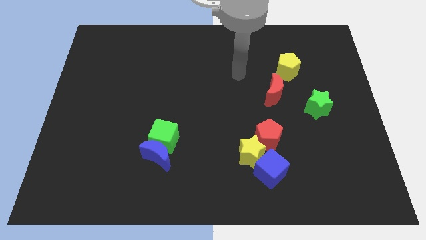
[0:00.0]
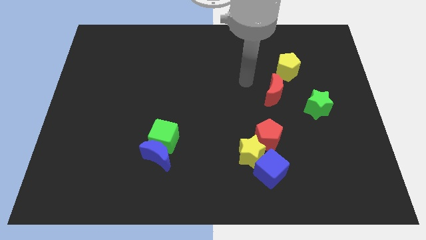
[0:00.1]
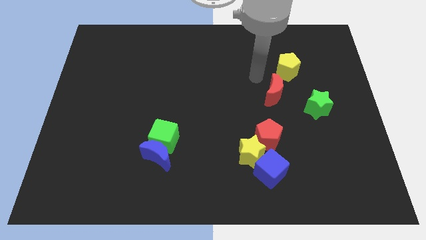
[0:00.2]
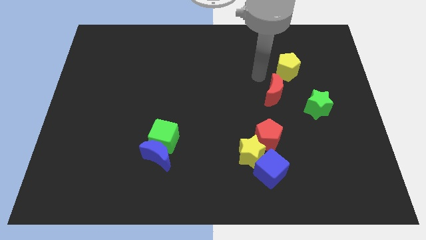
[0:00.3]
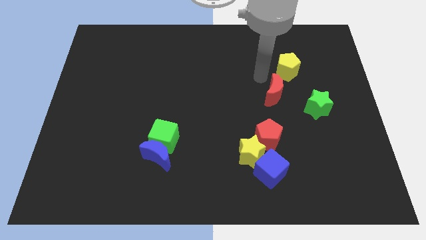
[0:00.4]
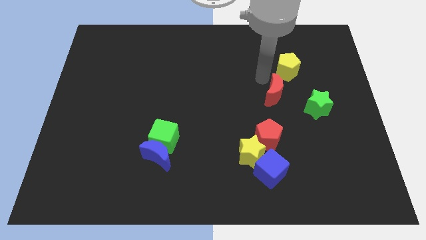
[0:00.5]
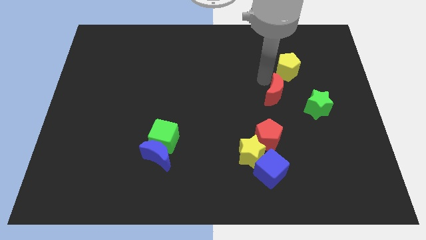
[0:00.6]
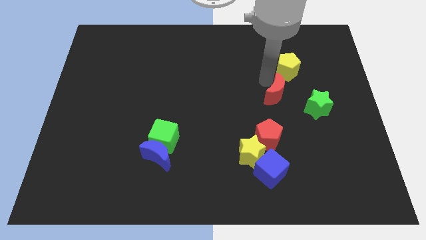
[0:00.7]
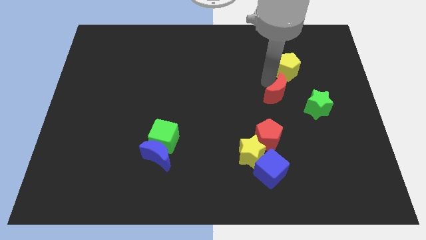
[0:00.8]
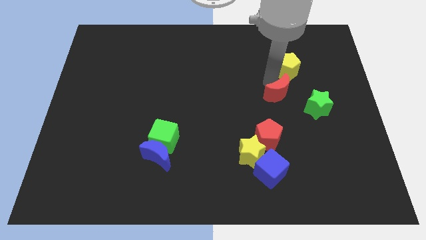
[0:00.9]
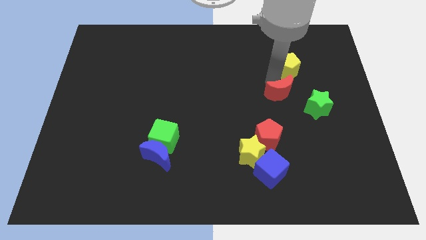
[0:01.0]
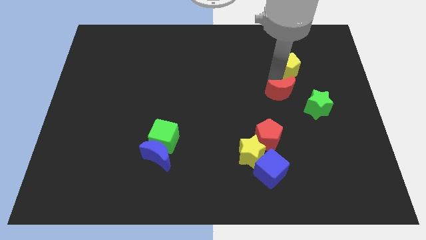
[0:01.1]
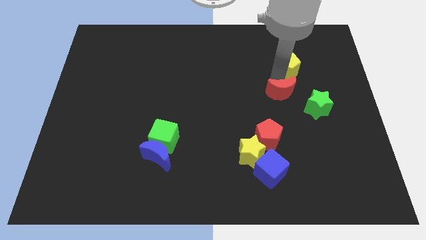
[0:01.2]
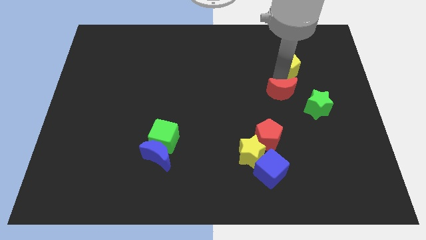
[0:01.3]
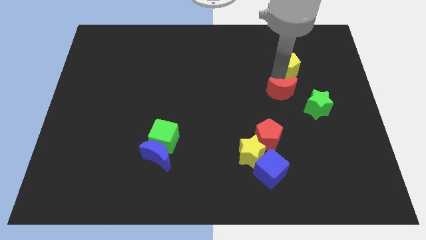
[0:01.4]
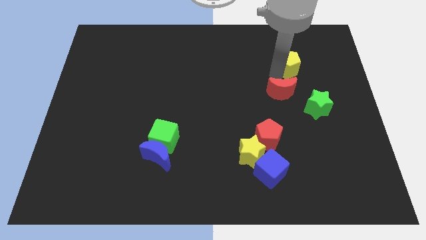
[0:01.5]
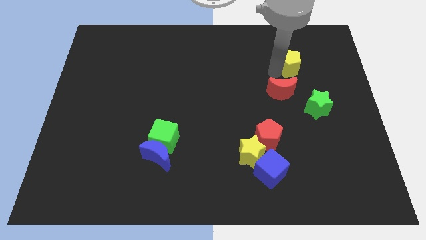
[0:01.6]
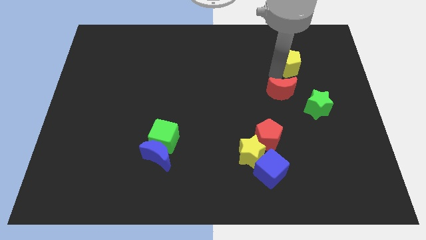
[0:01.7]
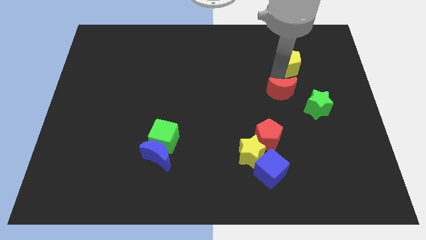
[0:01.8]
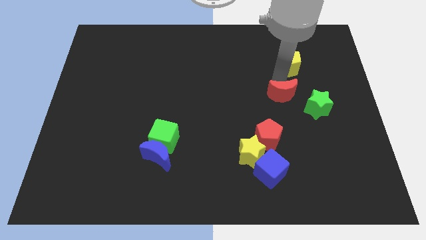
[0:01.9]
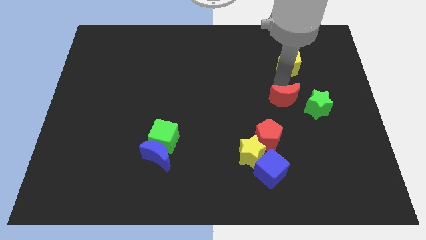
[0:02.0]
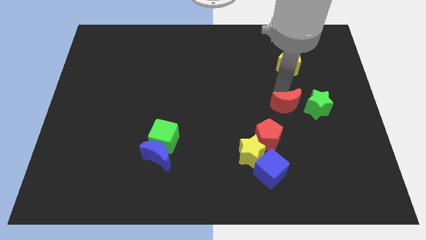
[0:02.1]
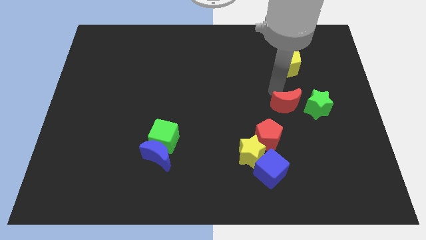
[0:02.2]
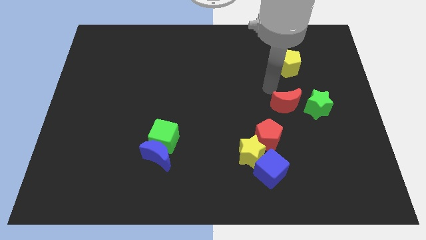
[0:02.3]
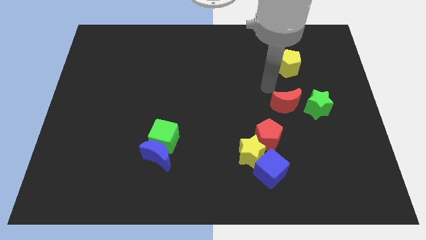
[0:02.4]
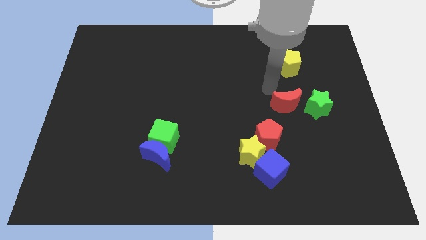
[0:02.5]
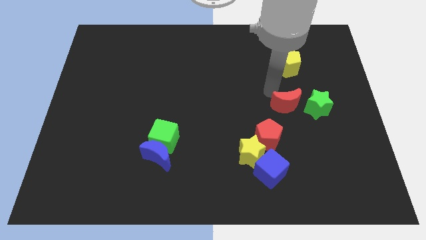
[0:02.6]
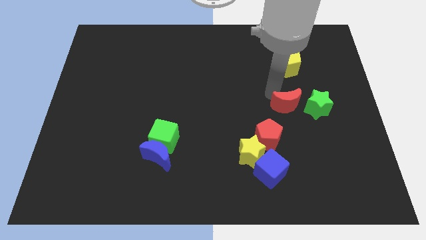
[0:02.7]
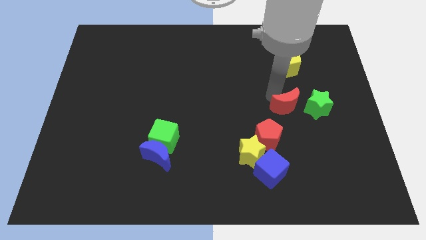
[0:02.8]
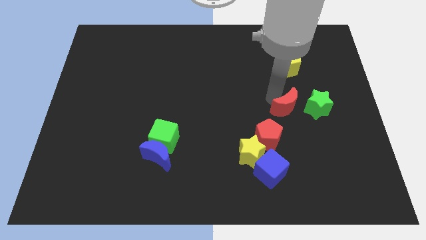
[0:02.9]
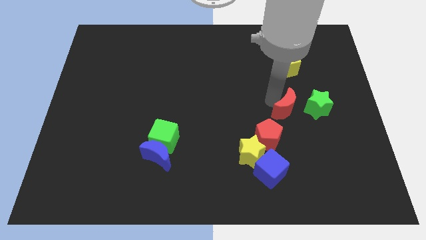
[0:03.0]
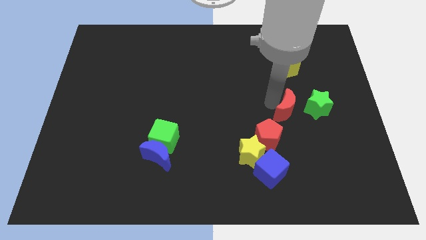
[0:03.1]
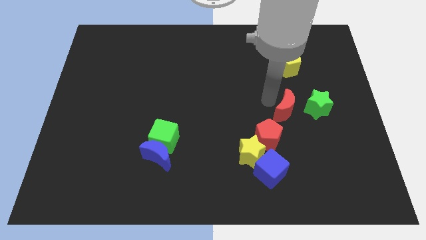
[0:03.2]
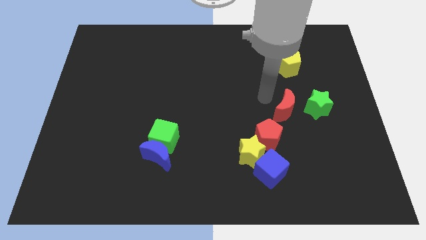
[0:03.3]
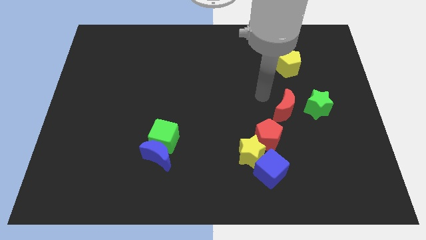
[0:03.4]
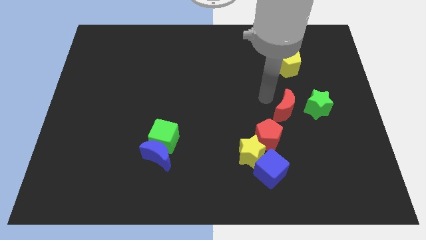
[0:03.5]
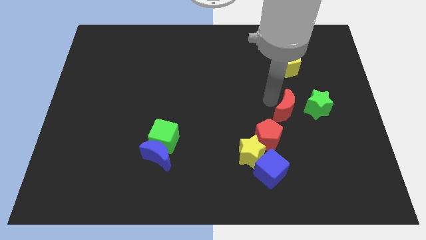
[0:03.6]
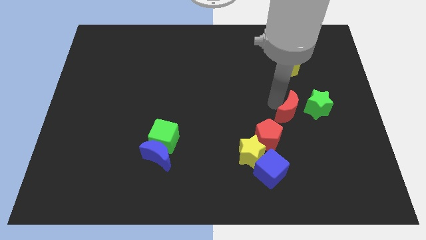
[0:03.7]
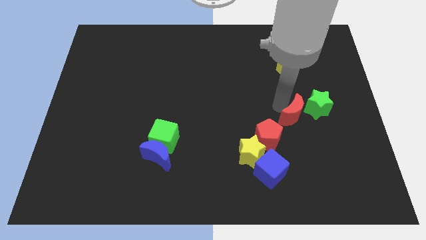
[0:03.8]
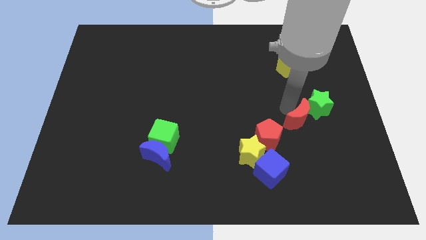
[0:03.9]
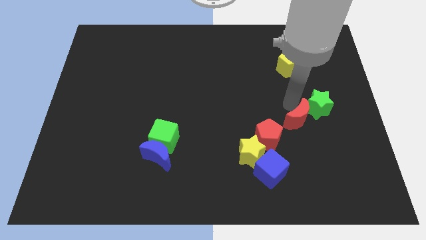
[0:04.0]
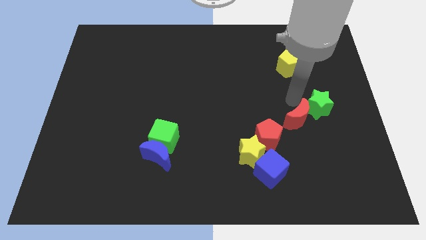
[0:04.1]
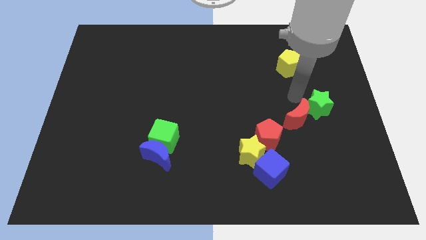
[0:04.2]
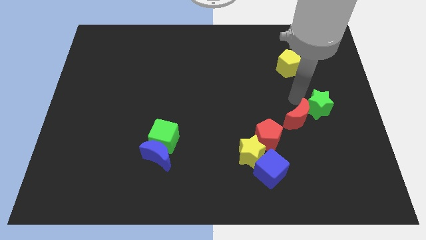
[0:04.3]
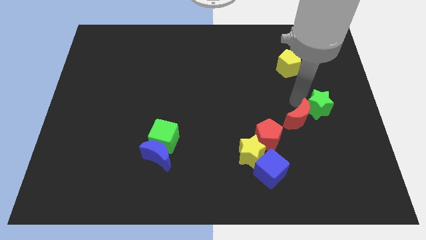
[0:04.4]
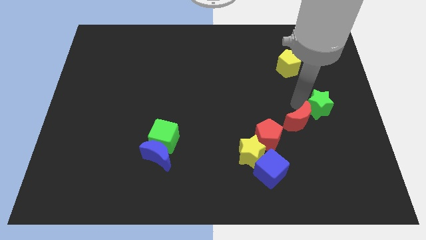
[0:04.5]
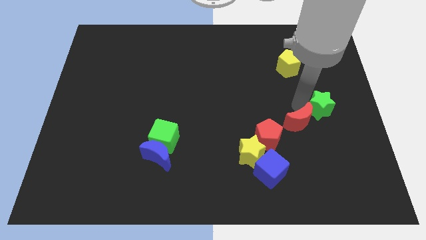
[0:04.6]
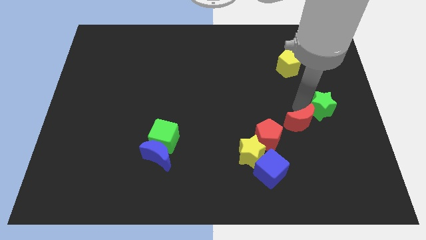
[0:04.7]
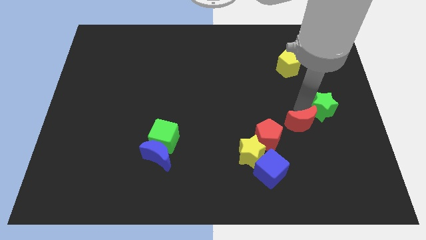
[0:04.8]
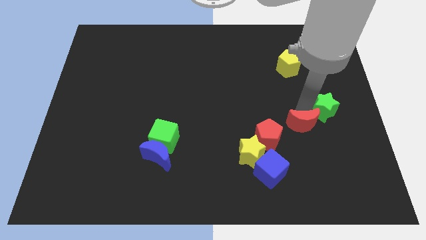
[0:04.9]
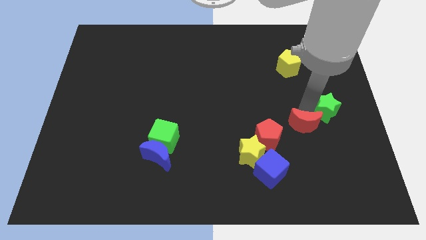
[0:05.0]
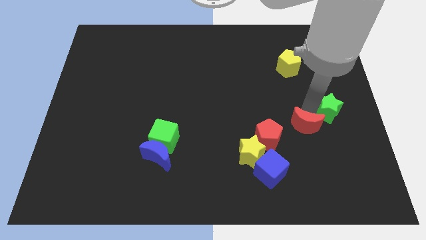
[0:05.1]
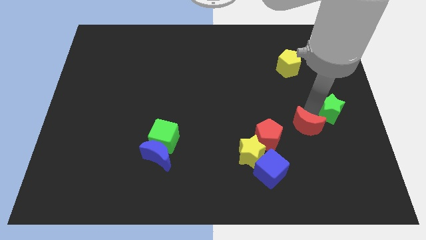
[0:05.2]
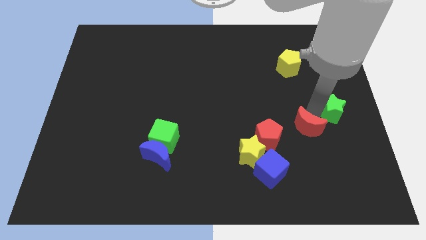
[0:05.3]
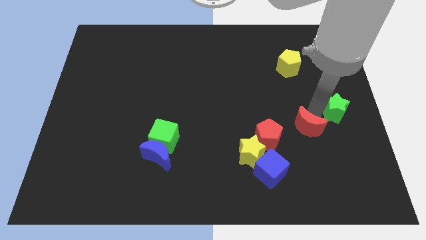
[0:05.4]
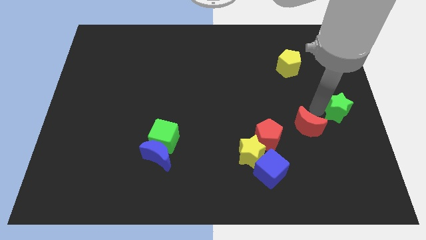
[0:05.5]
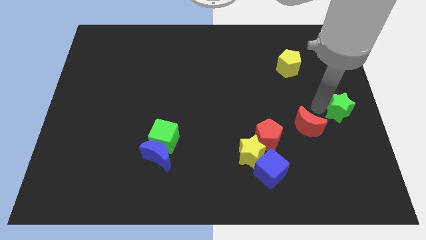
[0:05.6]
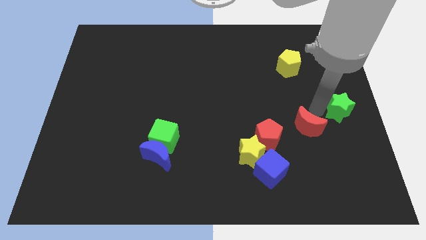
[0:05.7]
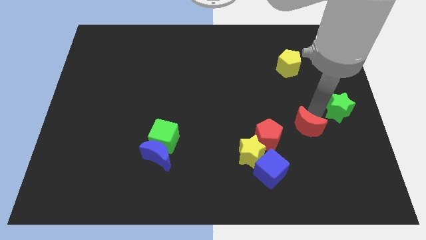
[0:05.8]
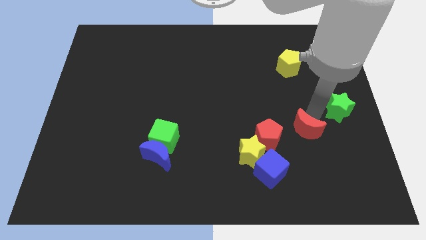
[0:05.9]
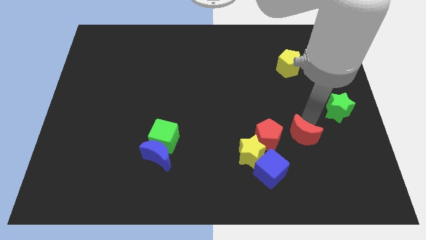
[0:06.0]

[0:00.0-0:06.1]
move the red moon to the right side of the yellow star

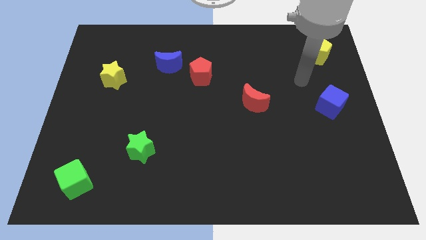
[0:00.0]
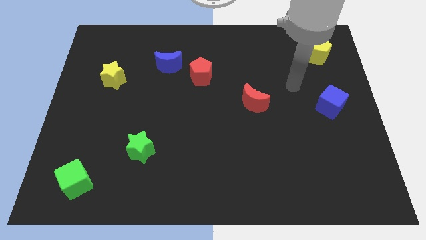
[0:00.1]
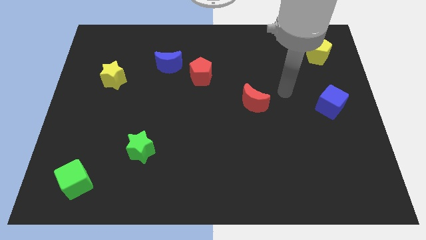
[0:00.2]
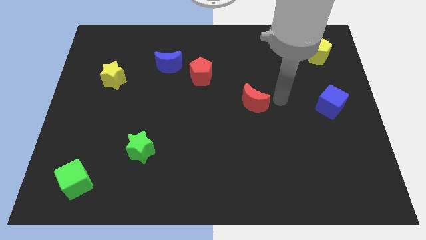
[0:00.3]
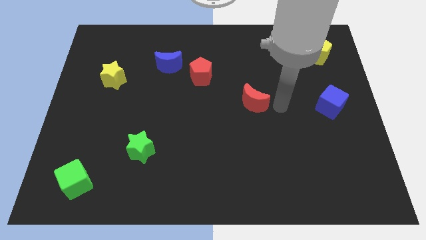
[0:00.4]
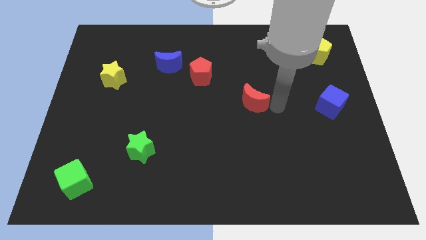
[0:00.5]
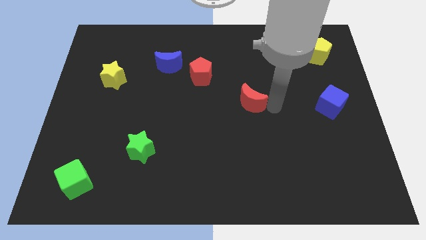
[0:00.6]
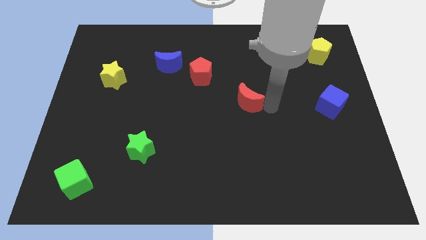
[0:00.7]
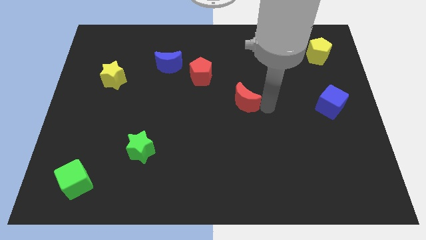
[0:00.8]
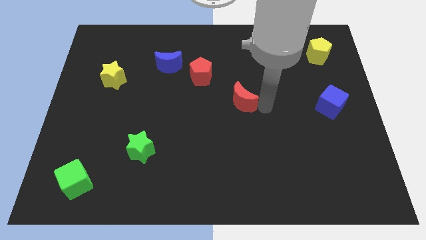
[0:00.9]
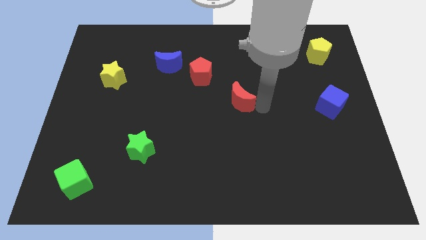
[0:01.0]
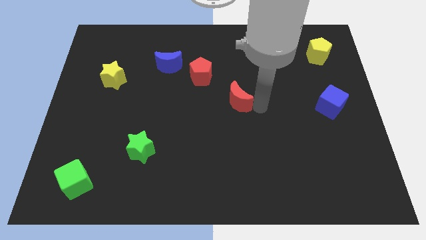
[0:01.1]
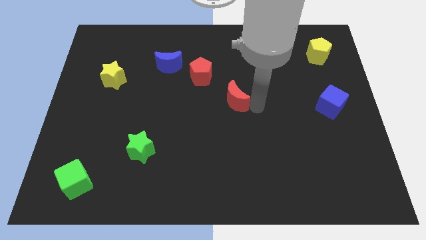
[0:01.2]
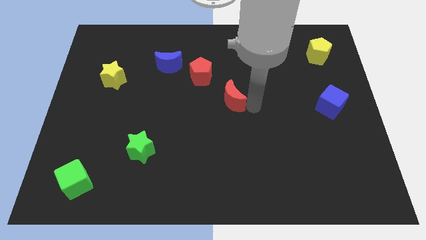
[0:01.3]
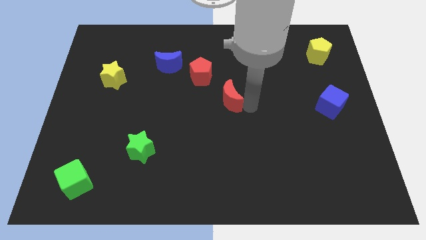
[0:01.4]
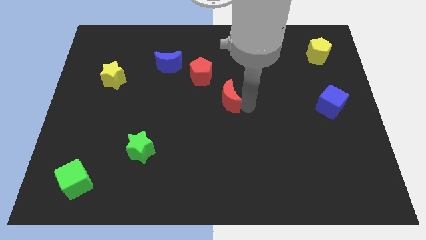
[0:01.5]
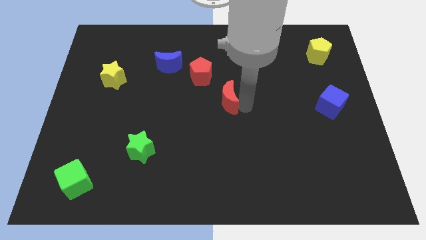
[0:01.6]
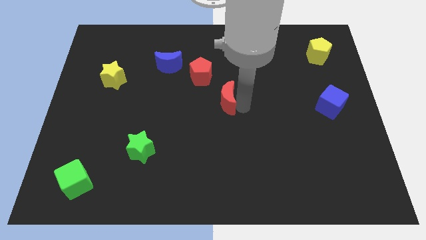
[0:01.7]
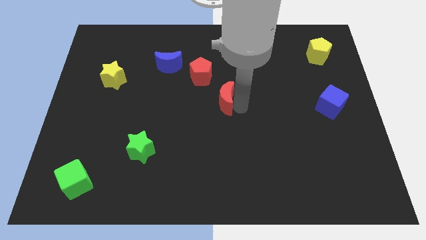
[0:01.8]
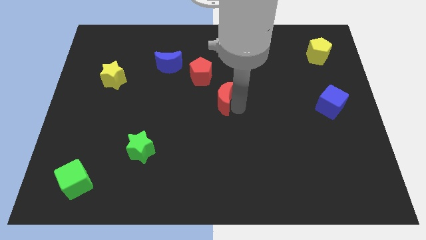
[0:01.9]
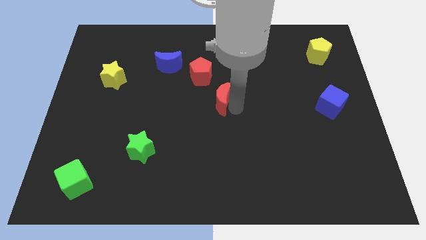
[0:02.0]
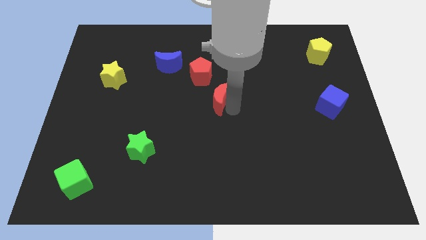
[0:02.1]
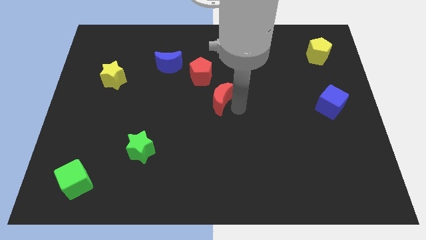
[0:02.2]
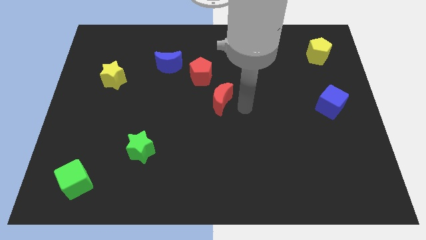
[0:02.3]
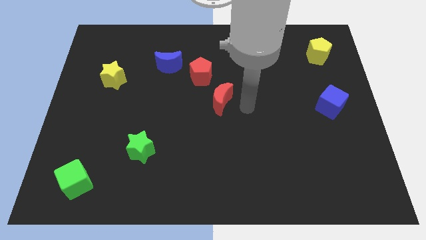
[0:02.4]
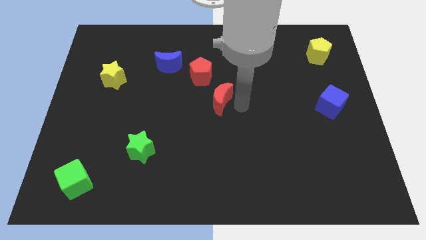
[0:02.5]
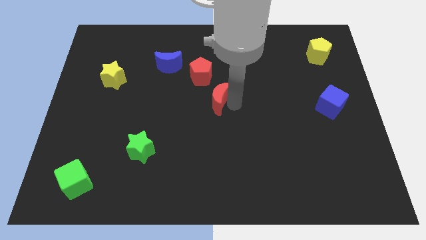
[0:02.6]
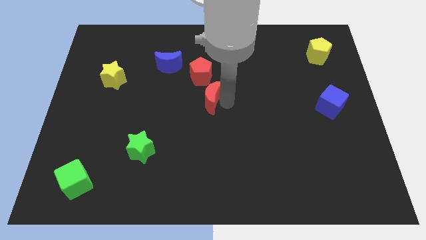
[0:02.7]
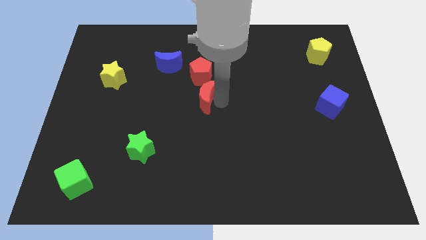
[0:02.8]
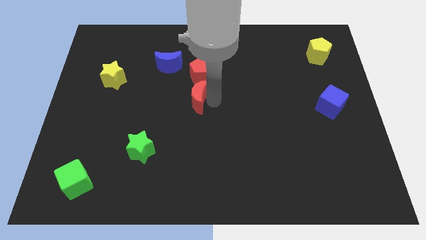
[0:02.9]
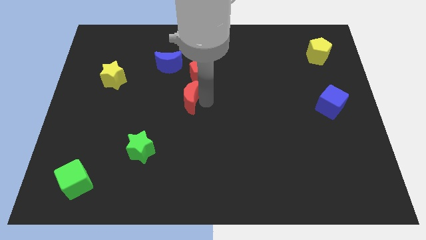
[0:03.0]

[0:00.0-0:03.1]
slide the red moon to the bottom left side of the red pentagon
